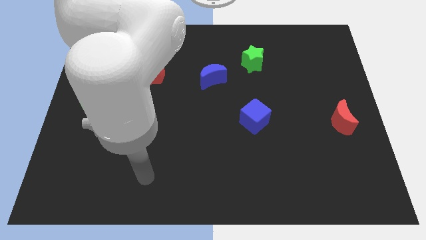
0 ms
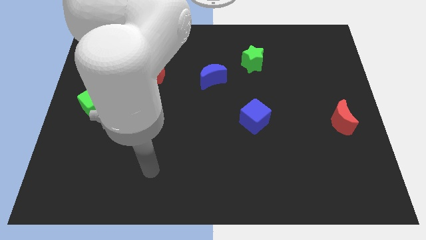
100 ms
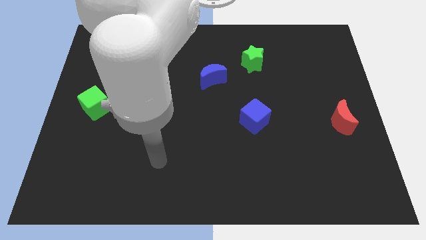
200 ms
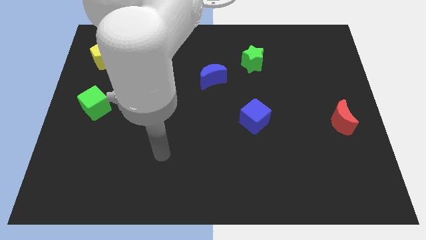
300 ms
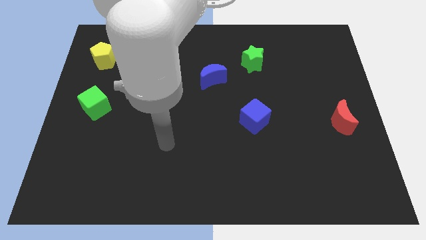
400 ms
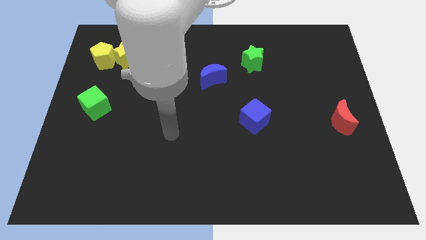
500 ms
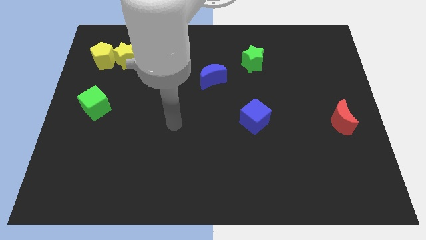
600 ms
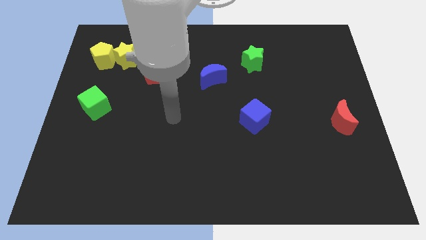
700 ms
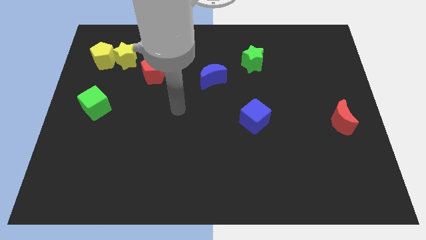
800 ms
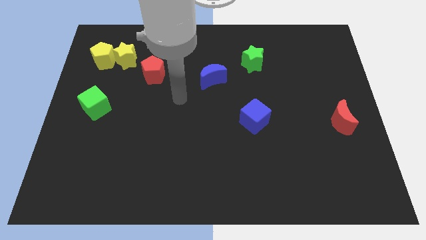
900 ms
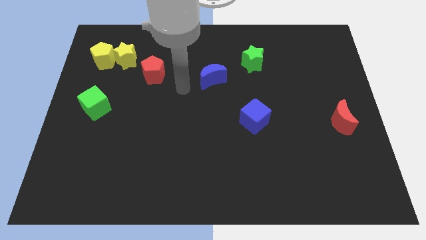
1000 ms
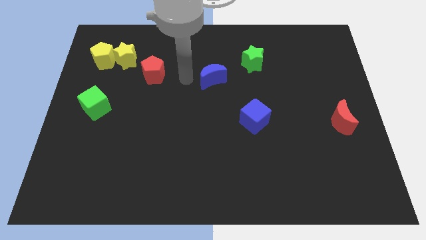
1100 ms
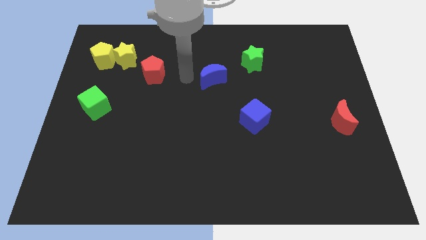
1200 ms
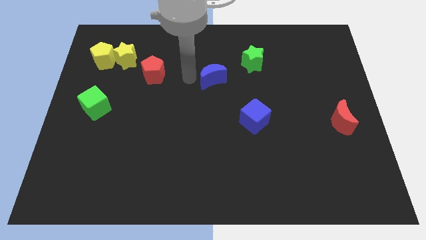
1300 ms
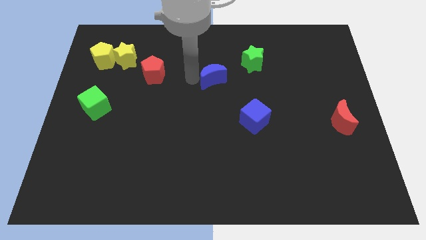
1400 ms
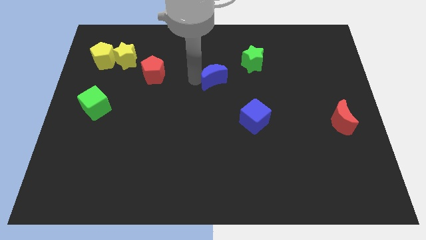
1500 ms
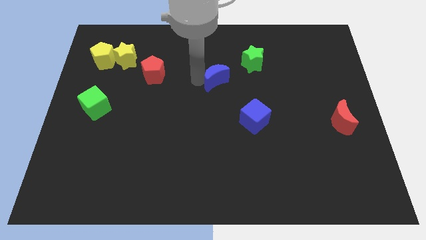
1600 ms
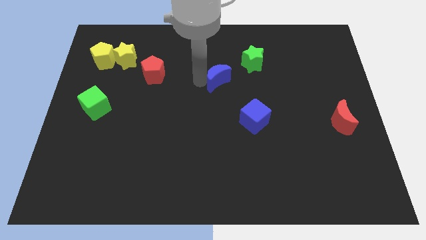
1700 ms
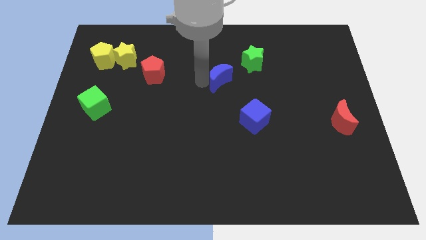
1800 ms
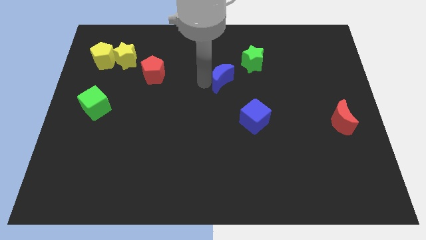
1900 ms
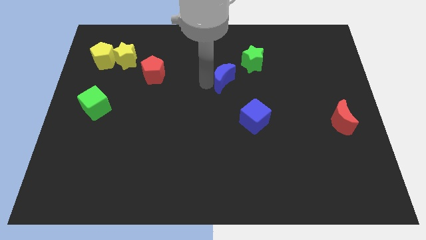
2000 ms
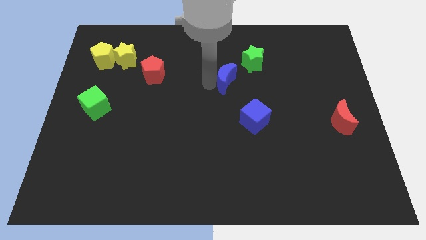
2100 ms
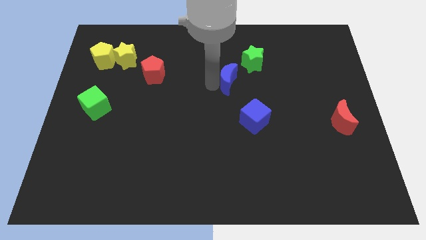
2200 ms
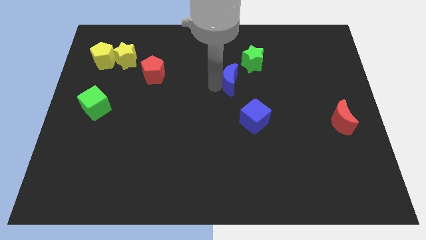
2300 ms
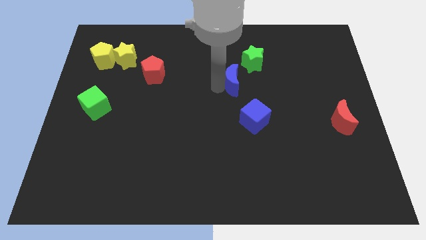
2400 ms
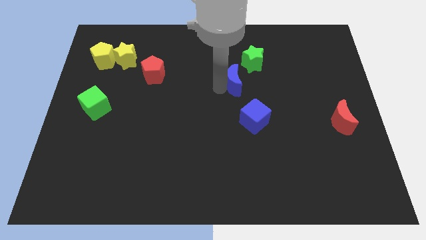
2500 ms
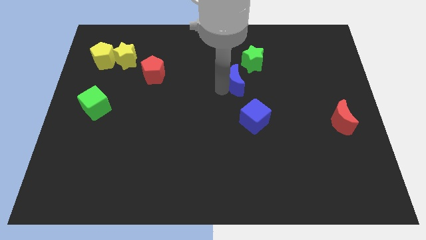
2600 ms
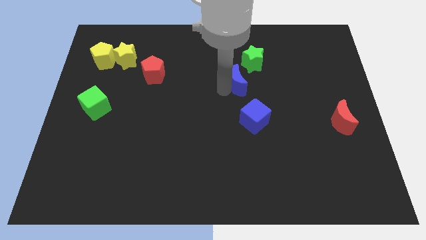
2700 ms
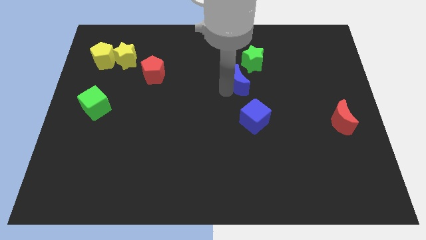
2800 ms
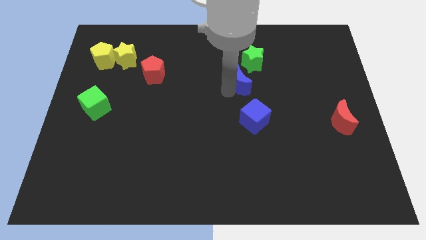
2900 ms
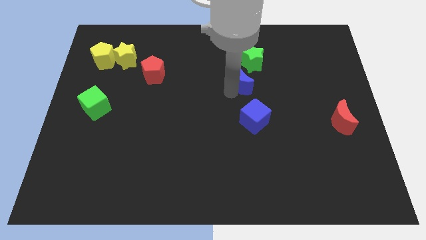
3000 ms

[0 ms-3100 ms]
slightly push the blue moon right

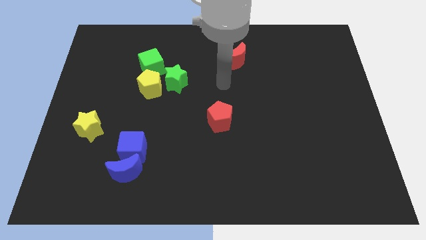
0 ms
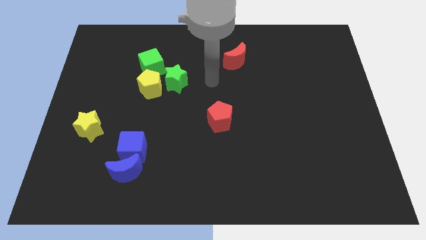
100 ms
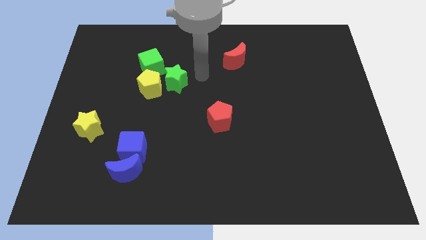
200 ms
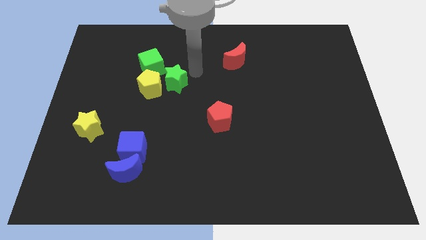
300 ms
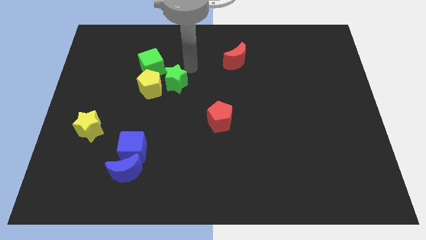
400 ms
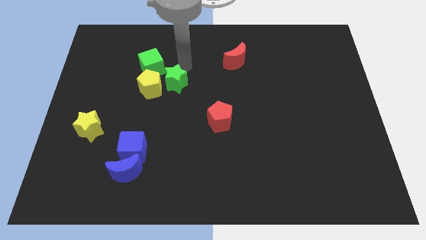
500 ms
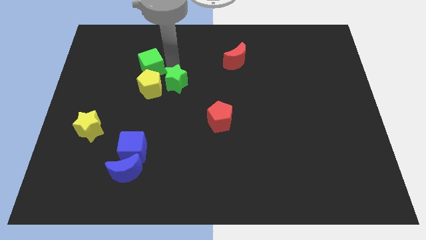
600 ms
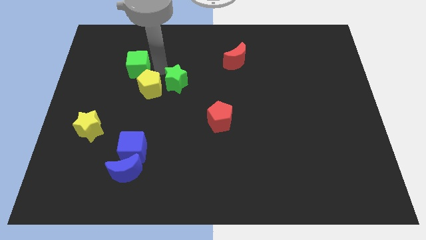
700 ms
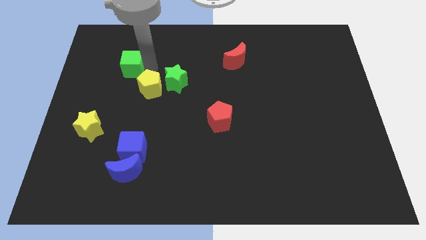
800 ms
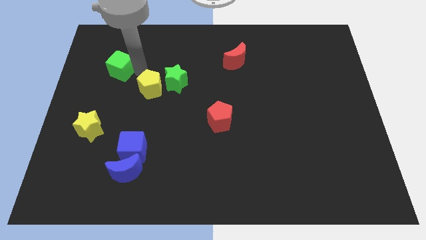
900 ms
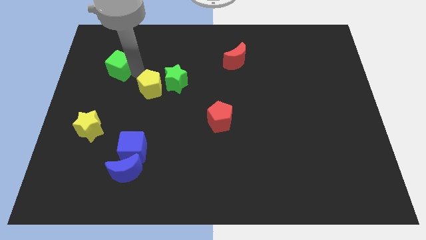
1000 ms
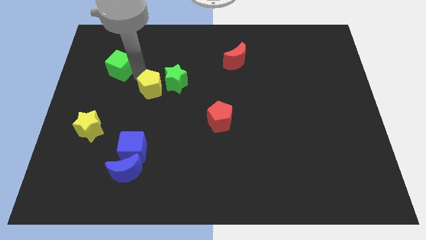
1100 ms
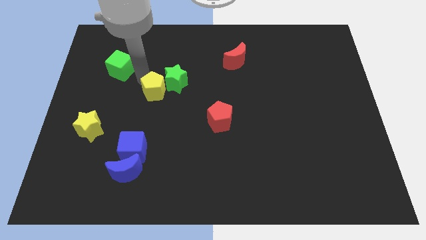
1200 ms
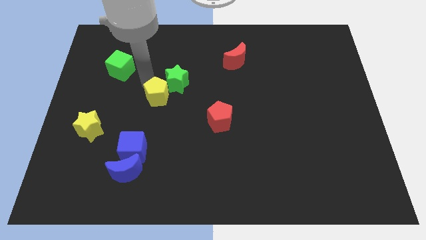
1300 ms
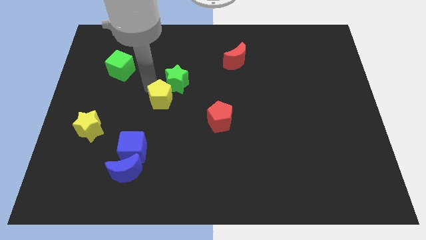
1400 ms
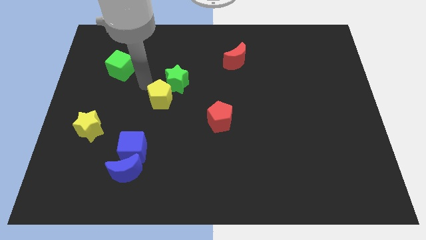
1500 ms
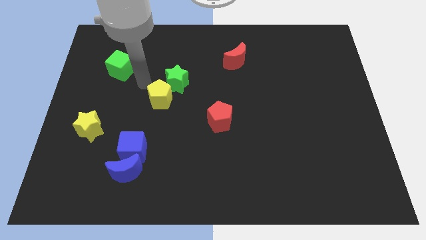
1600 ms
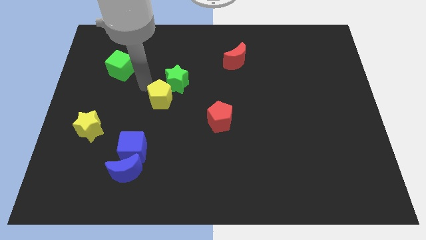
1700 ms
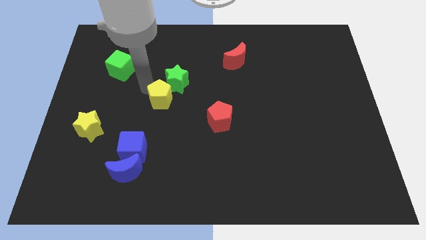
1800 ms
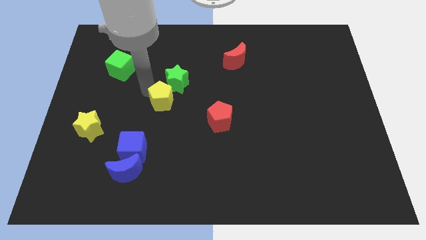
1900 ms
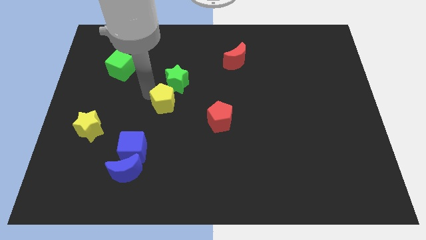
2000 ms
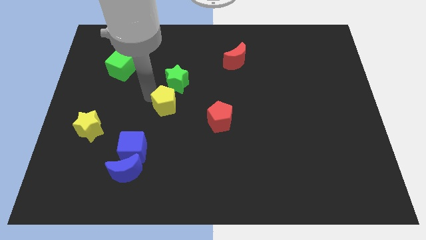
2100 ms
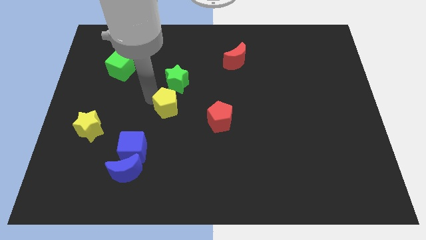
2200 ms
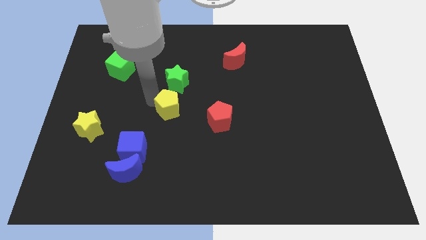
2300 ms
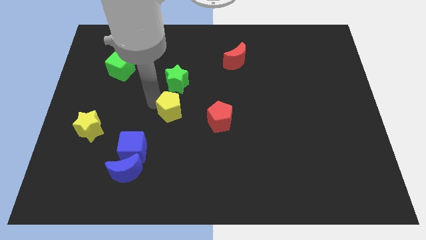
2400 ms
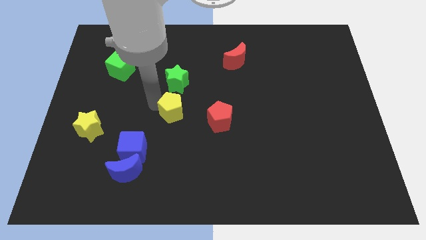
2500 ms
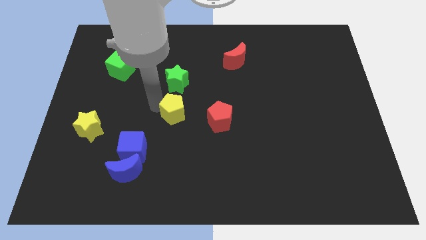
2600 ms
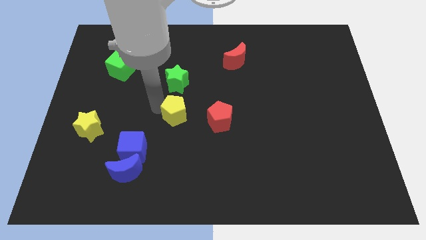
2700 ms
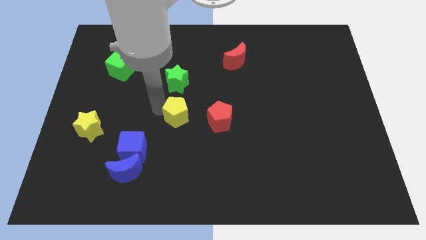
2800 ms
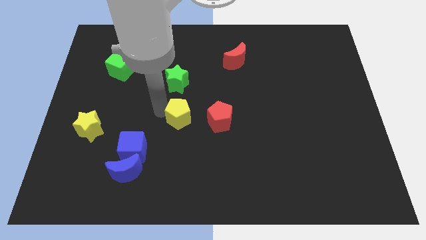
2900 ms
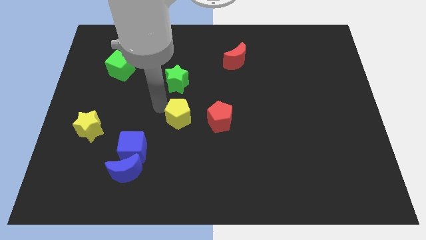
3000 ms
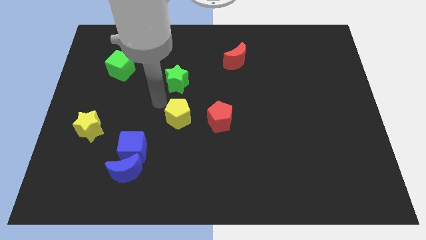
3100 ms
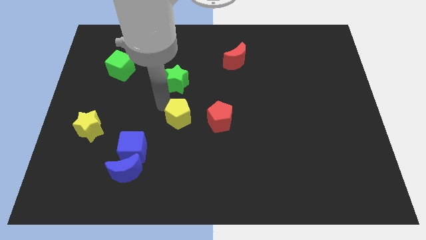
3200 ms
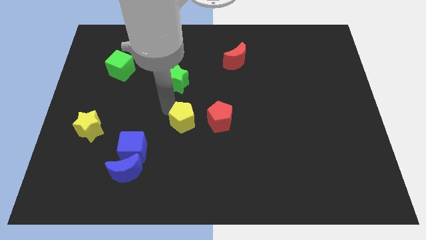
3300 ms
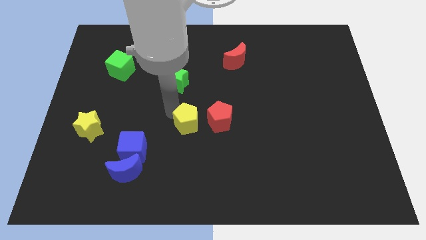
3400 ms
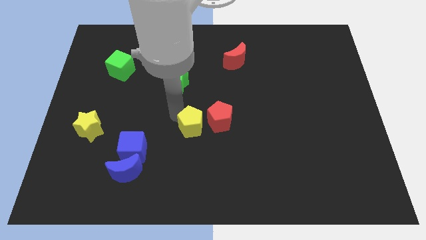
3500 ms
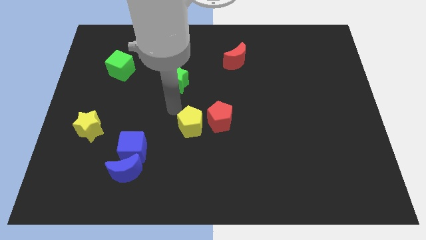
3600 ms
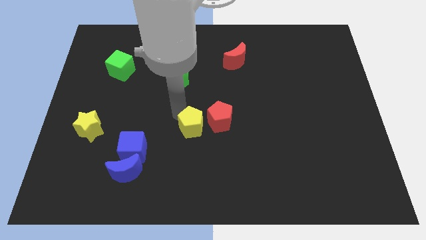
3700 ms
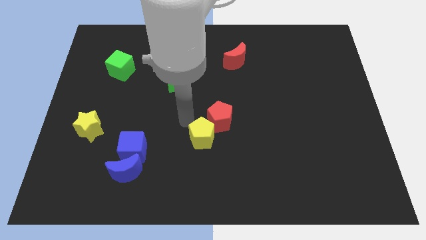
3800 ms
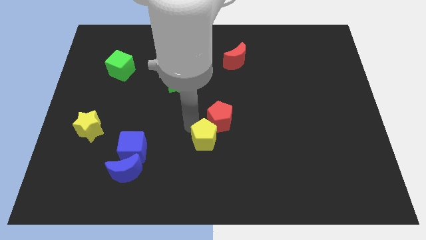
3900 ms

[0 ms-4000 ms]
slide the yellow pentagon down and then right

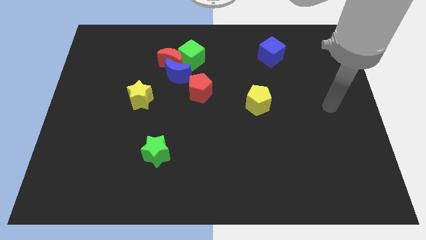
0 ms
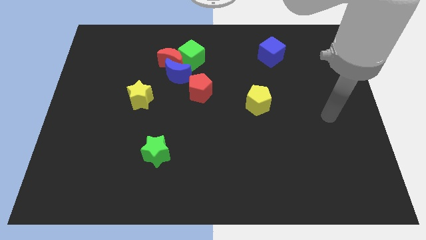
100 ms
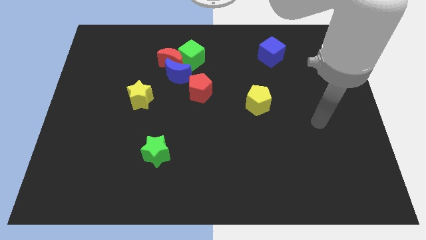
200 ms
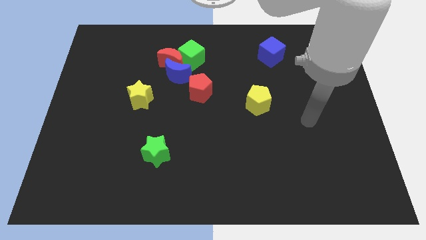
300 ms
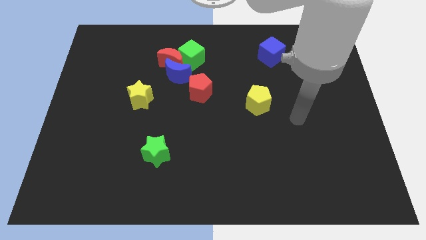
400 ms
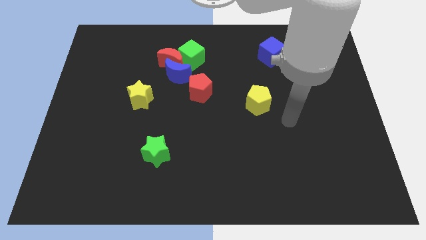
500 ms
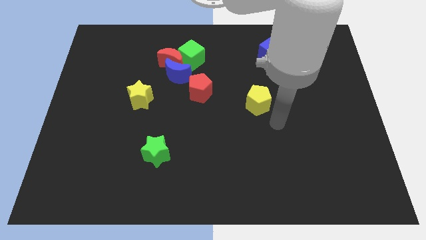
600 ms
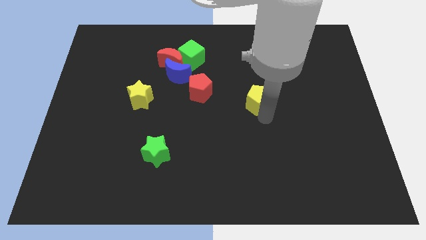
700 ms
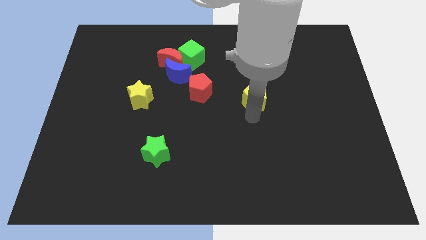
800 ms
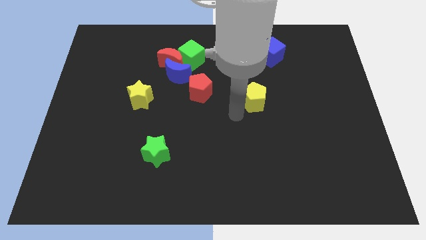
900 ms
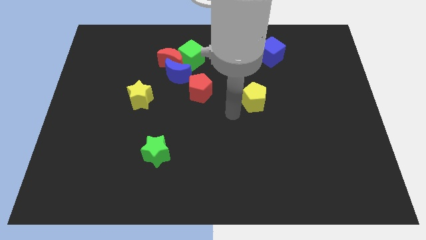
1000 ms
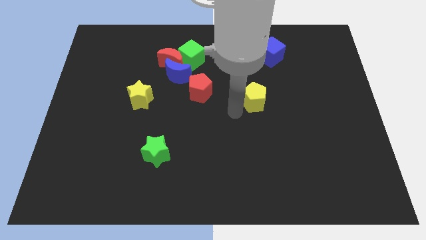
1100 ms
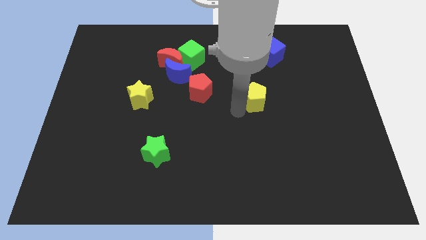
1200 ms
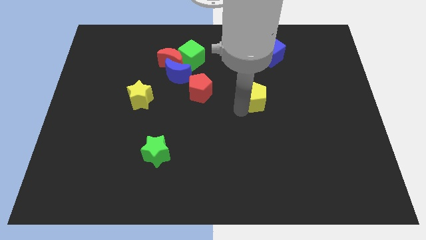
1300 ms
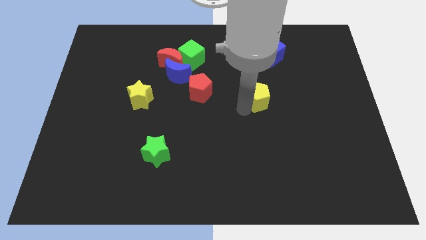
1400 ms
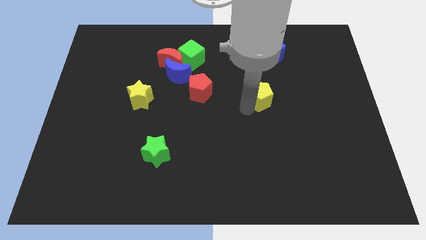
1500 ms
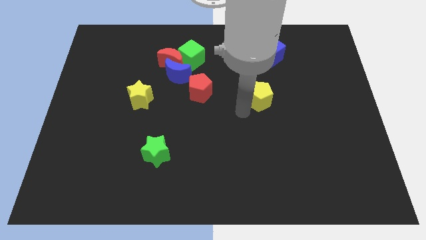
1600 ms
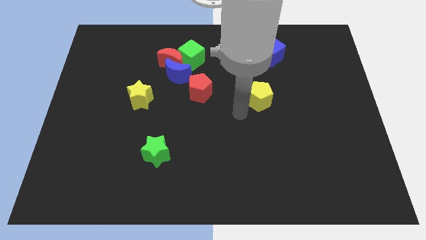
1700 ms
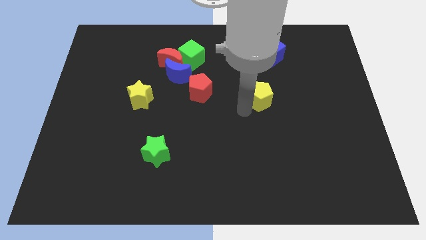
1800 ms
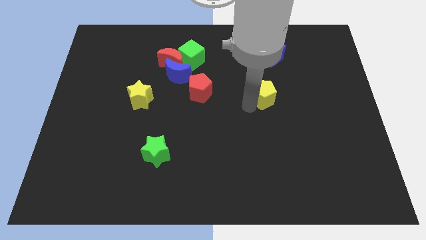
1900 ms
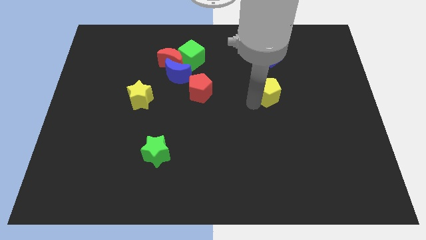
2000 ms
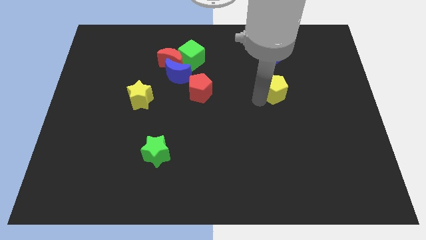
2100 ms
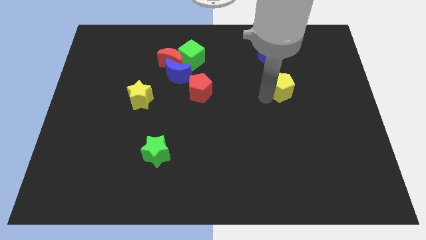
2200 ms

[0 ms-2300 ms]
move the yellow pentagon diagonally up and right a little bit
